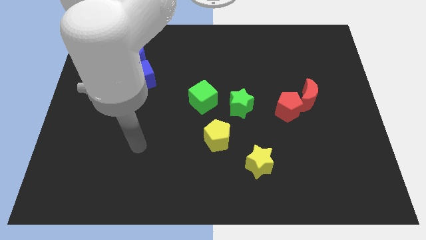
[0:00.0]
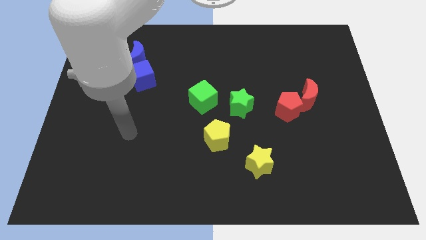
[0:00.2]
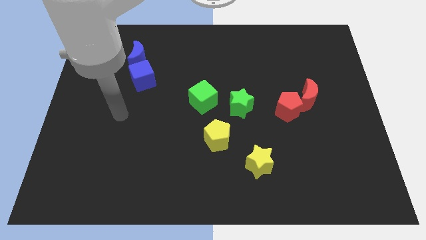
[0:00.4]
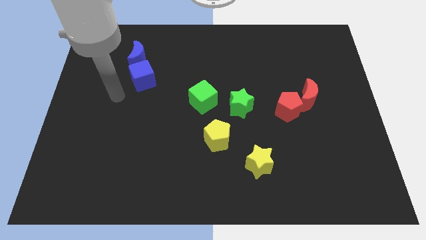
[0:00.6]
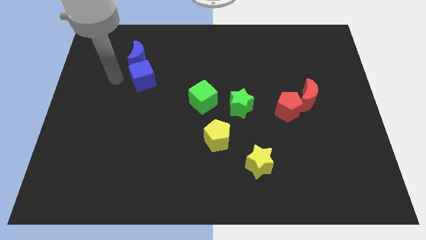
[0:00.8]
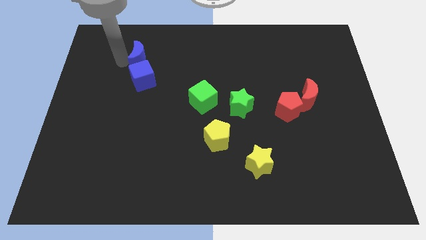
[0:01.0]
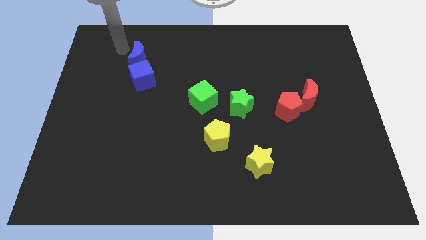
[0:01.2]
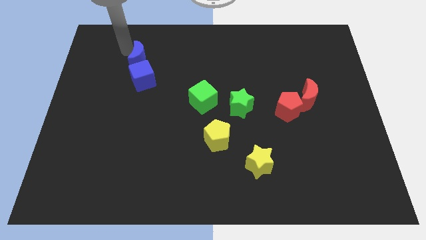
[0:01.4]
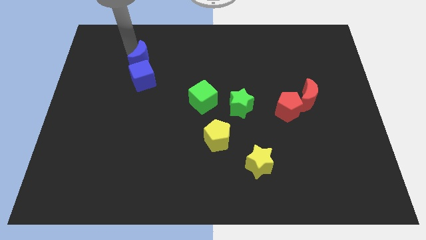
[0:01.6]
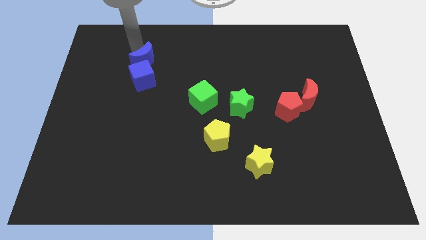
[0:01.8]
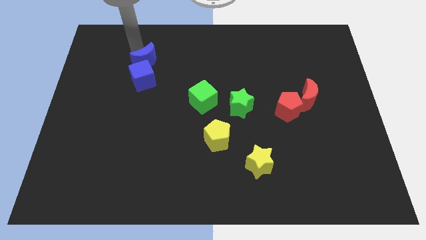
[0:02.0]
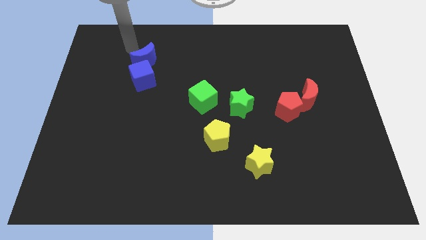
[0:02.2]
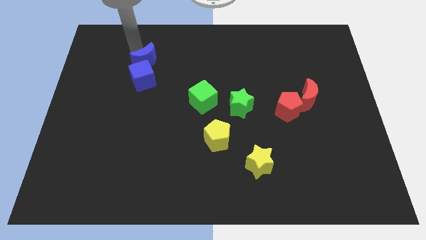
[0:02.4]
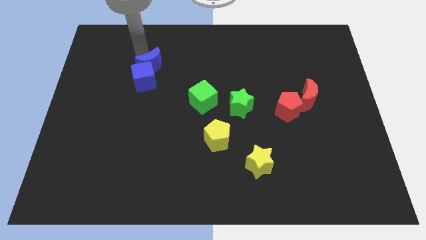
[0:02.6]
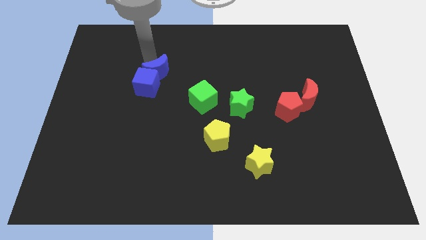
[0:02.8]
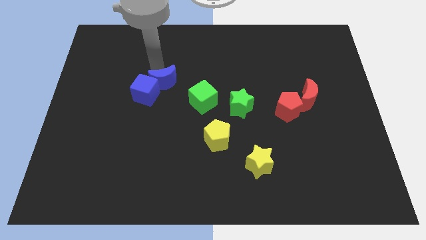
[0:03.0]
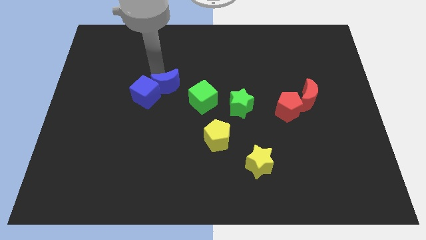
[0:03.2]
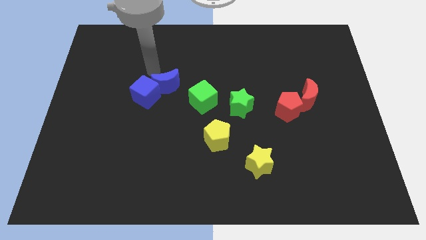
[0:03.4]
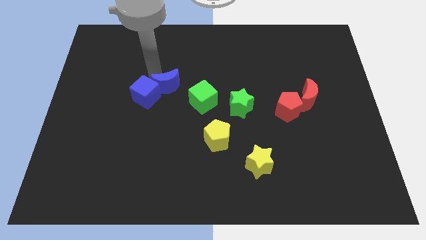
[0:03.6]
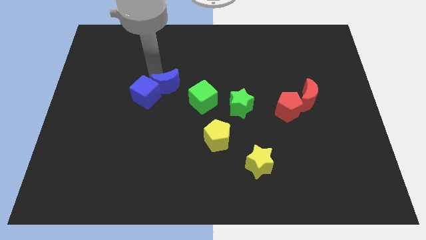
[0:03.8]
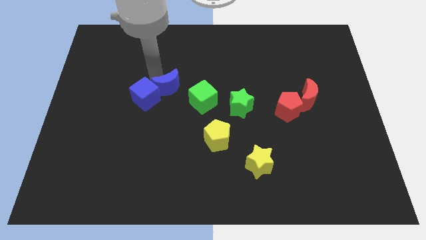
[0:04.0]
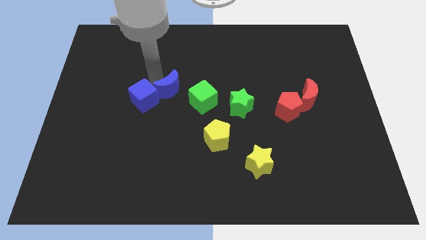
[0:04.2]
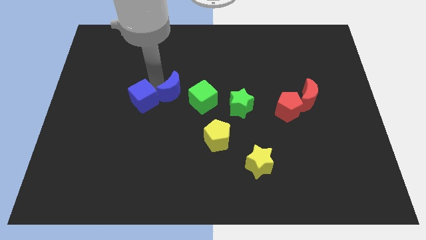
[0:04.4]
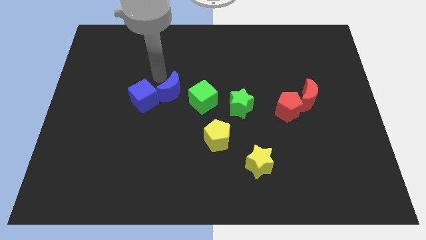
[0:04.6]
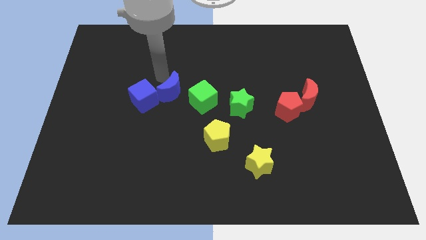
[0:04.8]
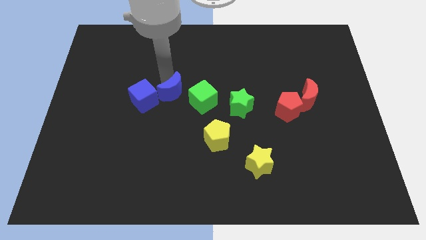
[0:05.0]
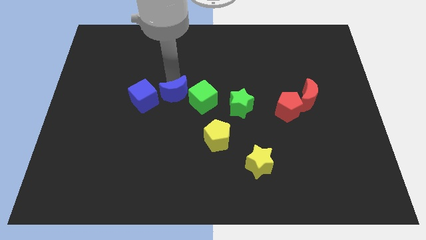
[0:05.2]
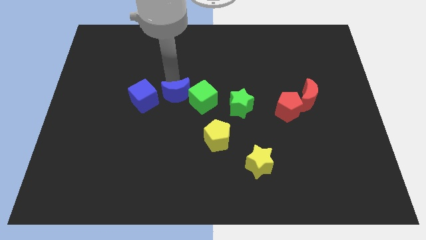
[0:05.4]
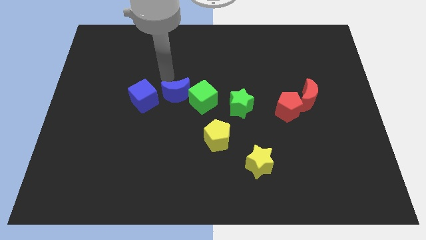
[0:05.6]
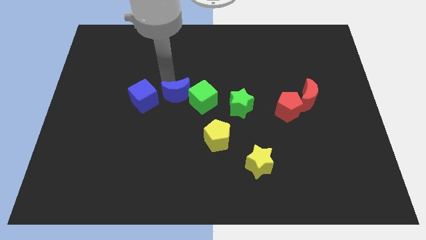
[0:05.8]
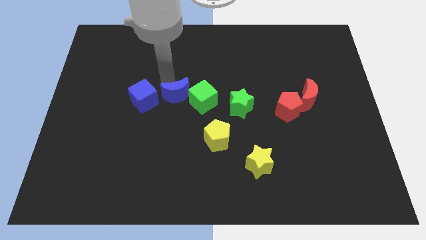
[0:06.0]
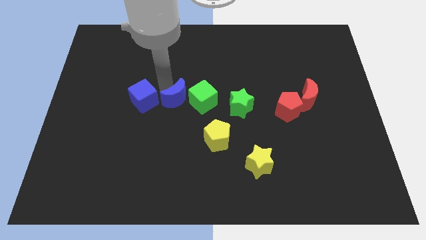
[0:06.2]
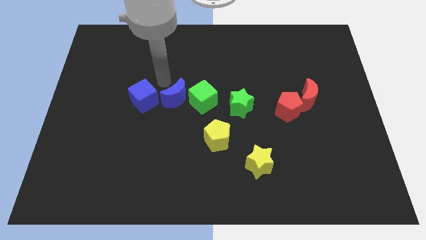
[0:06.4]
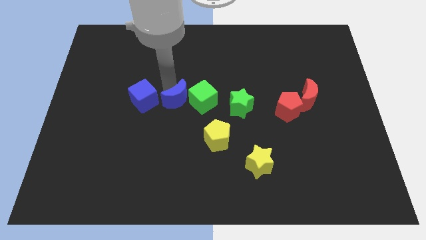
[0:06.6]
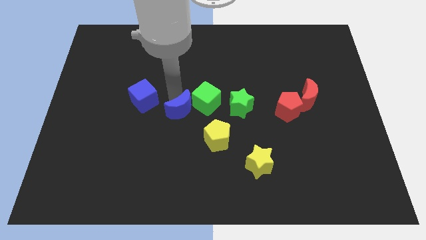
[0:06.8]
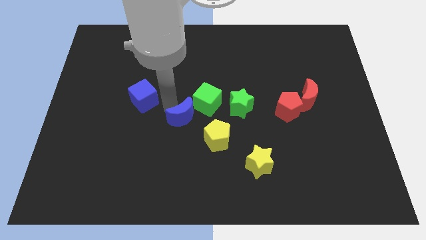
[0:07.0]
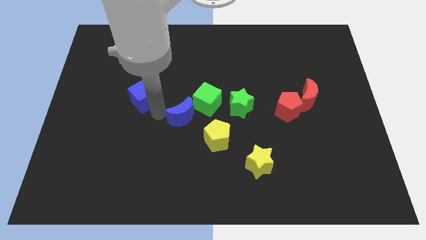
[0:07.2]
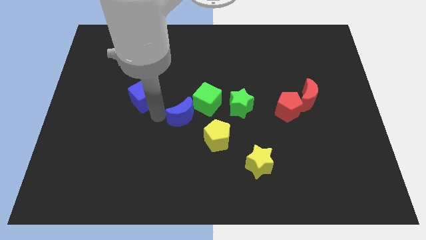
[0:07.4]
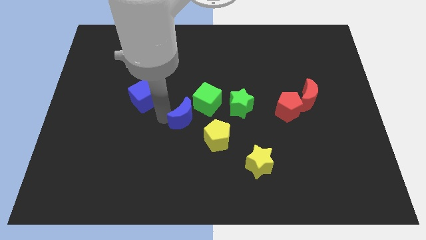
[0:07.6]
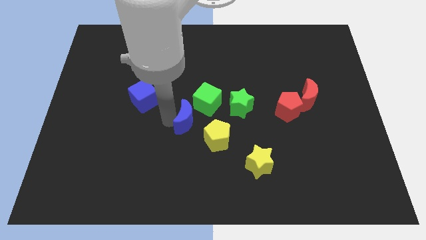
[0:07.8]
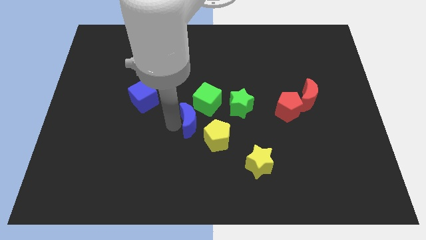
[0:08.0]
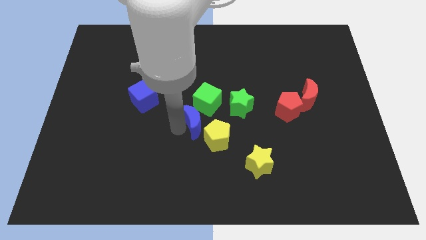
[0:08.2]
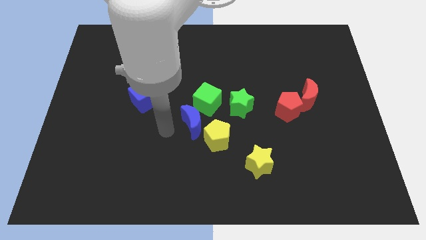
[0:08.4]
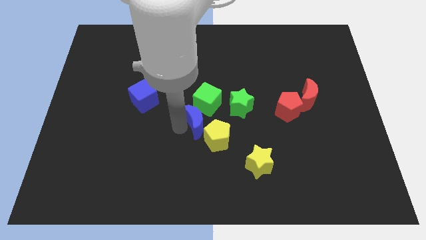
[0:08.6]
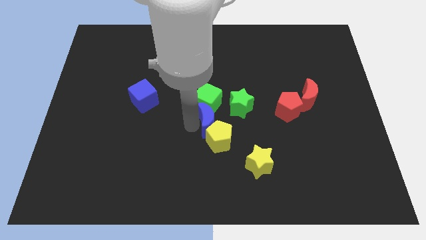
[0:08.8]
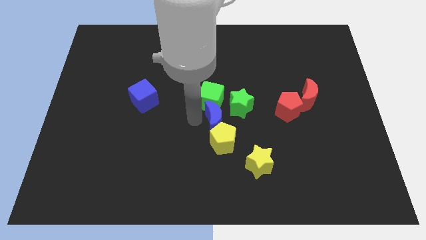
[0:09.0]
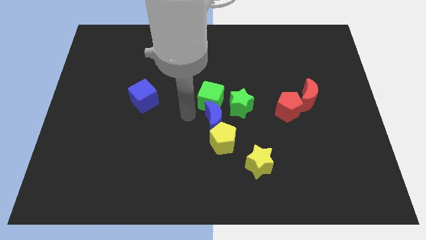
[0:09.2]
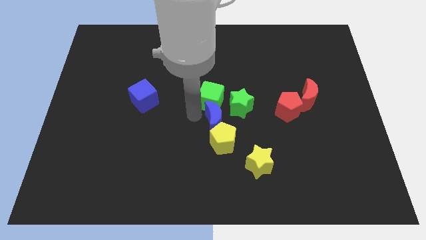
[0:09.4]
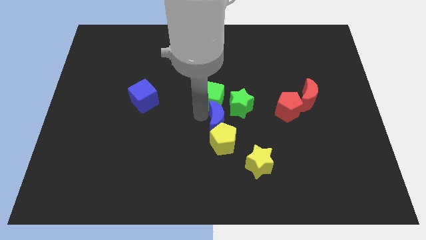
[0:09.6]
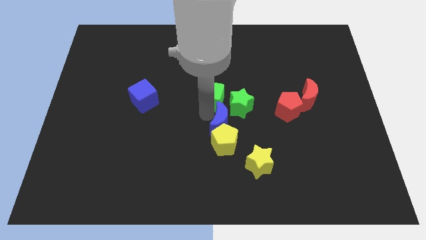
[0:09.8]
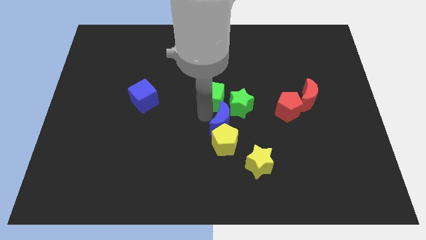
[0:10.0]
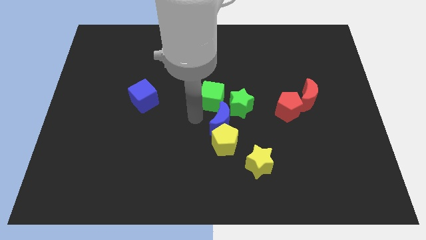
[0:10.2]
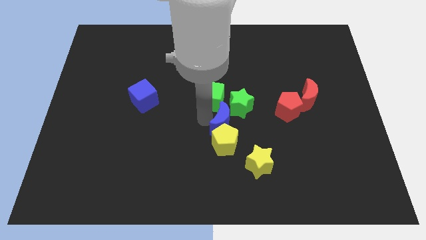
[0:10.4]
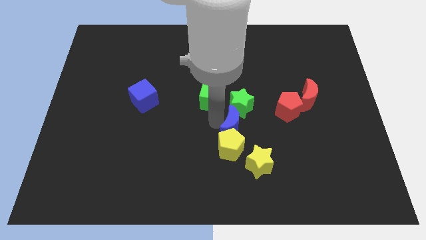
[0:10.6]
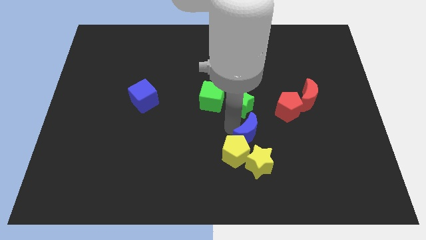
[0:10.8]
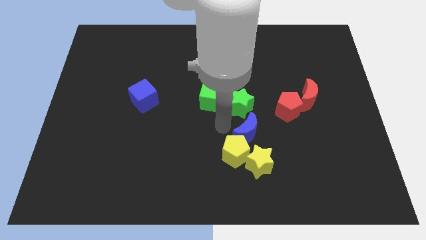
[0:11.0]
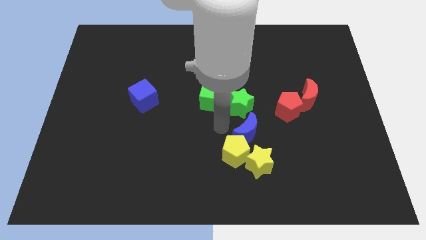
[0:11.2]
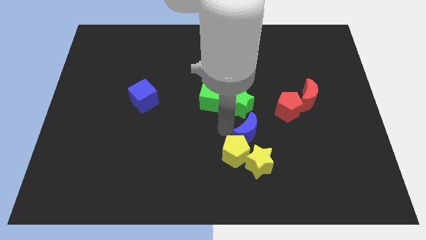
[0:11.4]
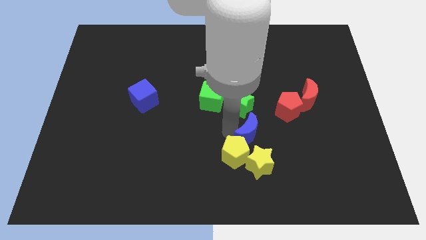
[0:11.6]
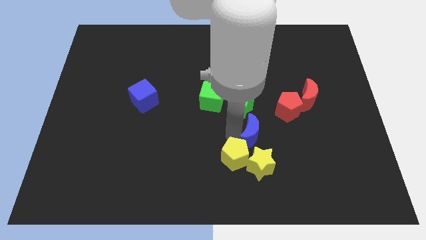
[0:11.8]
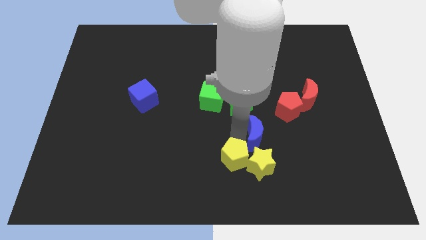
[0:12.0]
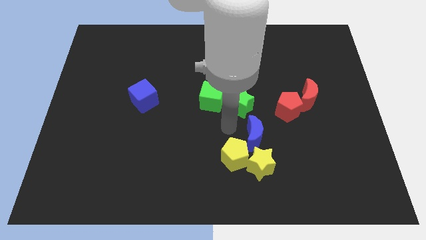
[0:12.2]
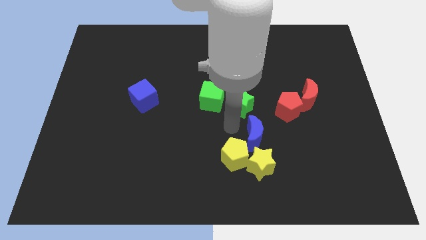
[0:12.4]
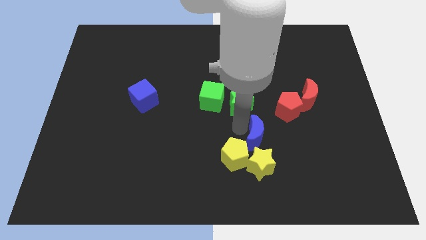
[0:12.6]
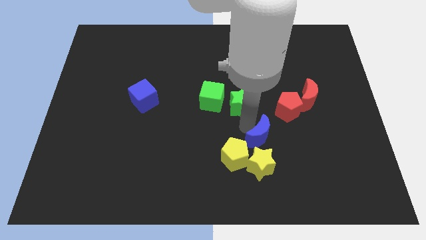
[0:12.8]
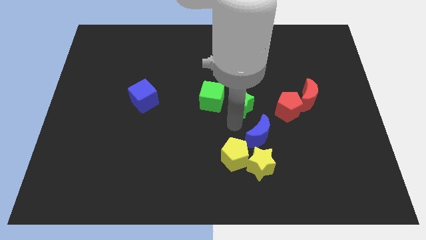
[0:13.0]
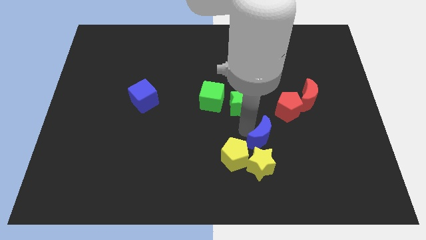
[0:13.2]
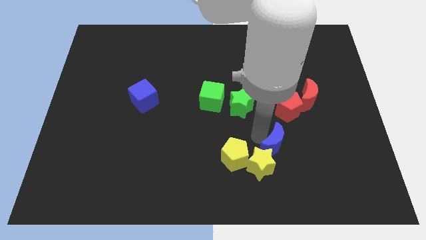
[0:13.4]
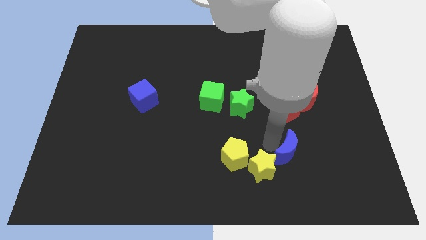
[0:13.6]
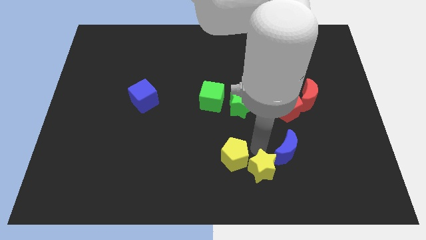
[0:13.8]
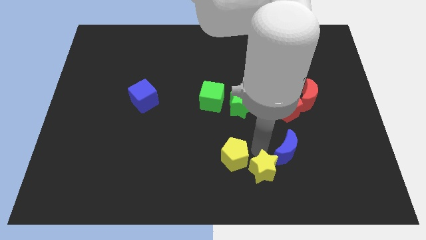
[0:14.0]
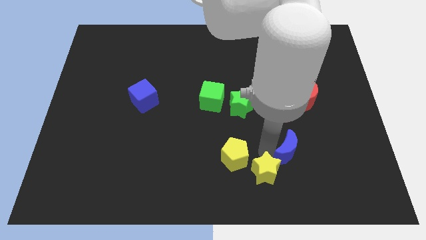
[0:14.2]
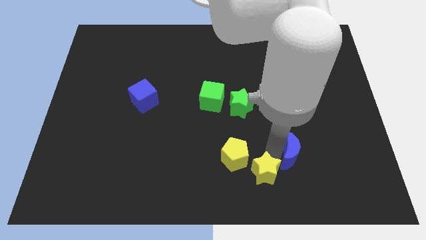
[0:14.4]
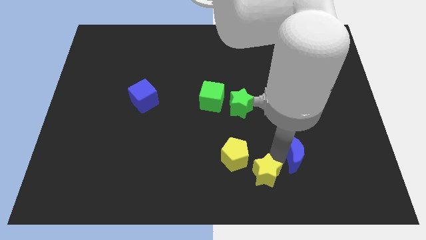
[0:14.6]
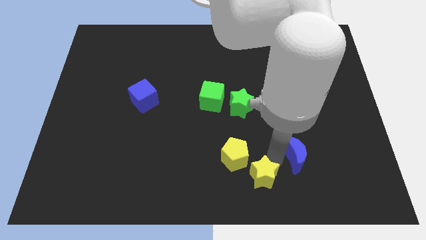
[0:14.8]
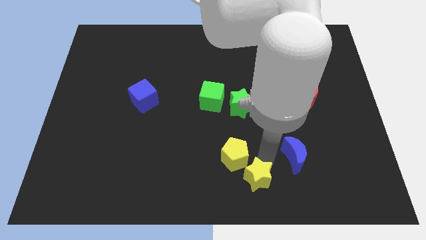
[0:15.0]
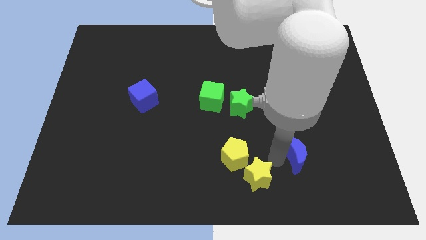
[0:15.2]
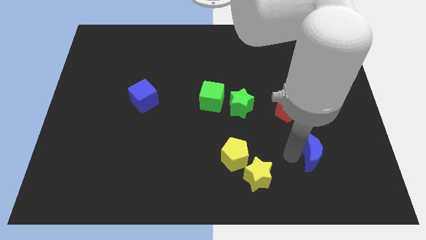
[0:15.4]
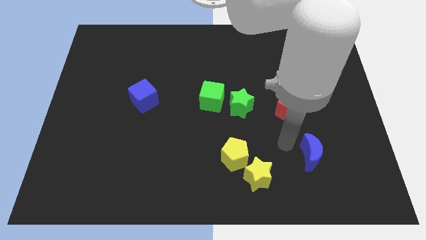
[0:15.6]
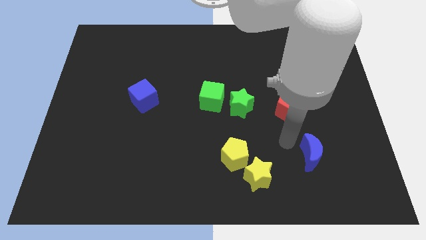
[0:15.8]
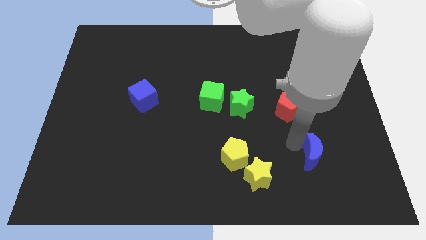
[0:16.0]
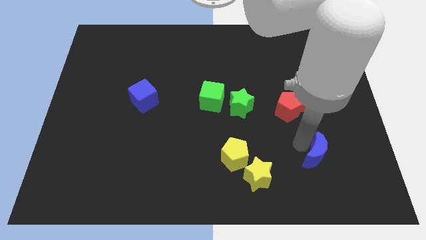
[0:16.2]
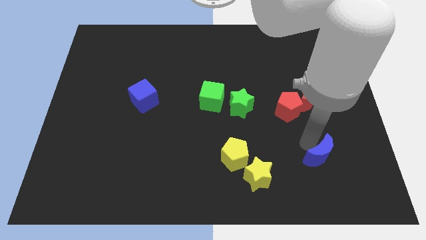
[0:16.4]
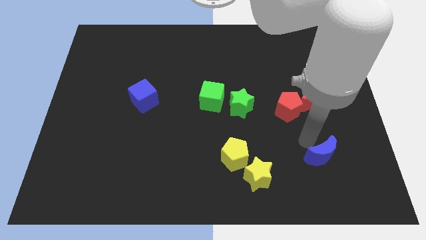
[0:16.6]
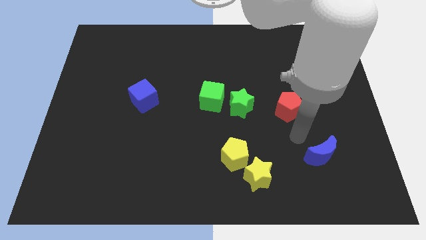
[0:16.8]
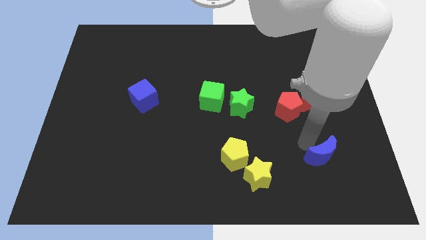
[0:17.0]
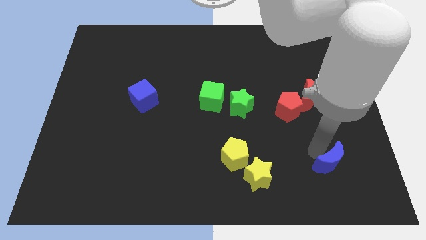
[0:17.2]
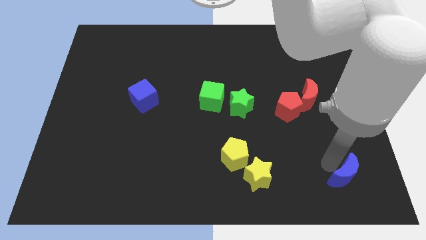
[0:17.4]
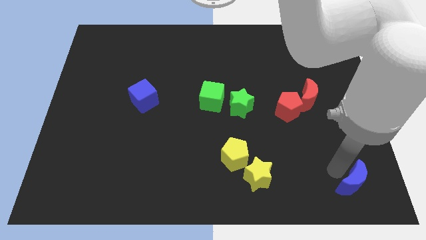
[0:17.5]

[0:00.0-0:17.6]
move the blue moon to the bottom right of the board
